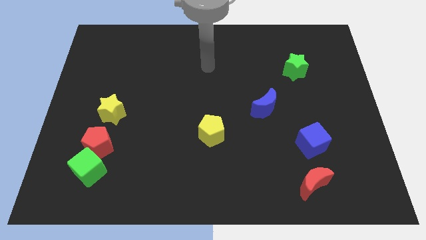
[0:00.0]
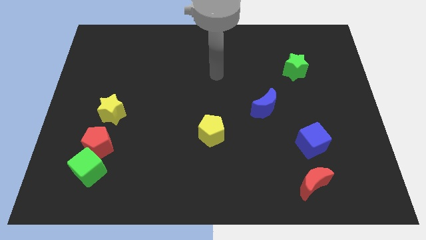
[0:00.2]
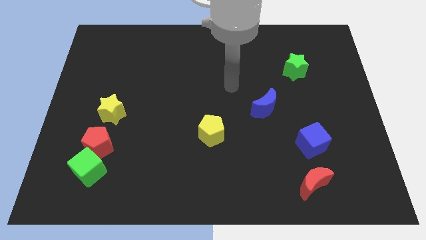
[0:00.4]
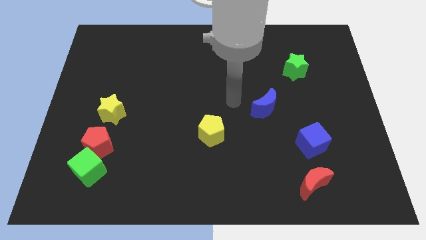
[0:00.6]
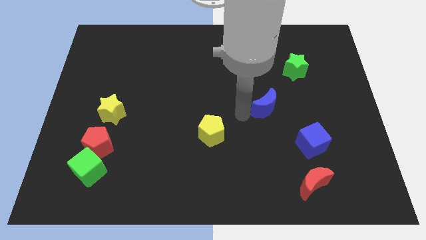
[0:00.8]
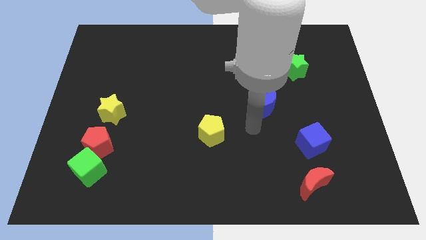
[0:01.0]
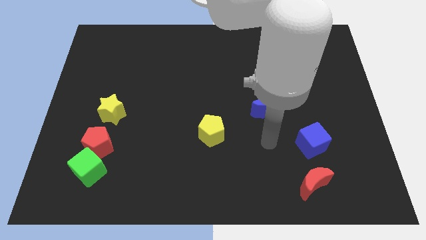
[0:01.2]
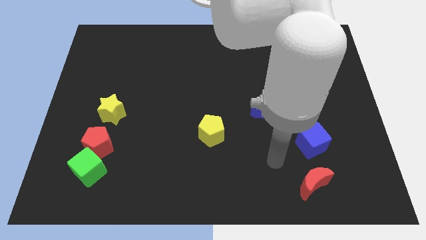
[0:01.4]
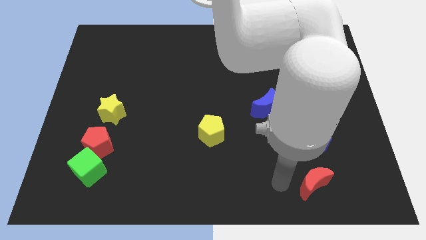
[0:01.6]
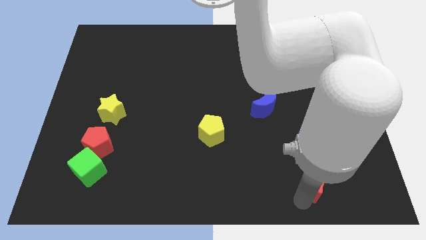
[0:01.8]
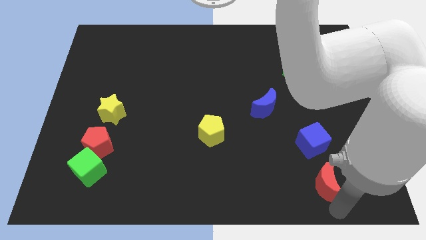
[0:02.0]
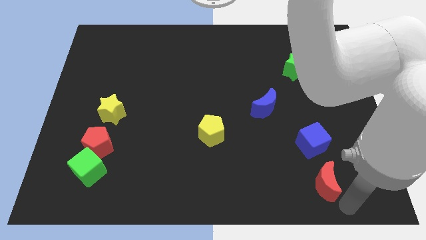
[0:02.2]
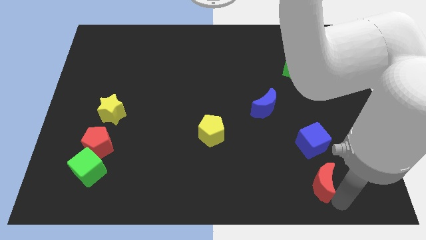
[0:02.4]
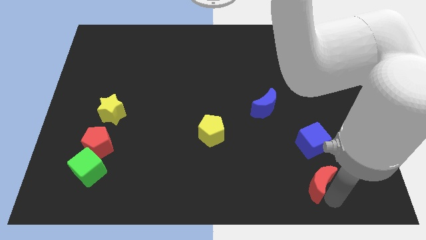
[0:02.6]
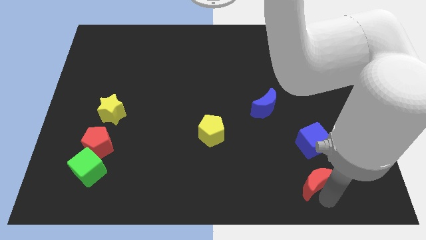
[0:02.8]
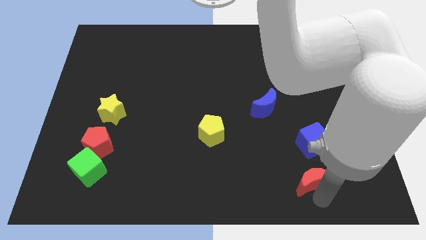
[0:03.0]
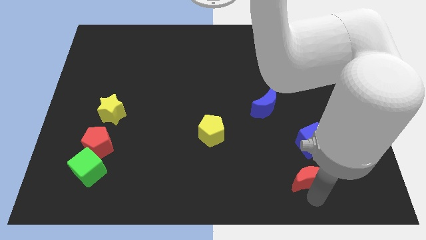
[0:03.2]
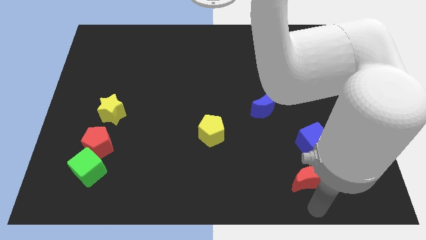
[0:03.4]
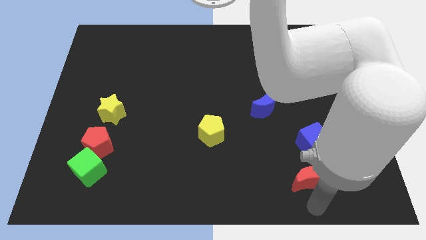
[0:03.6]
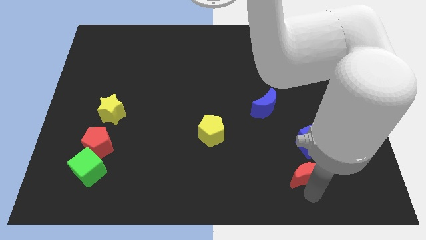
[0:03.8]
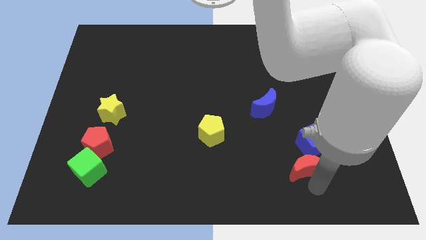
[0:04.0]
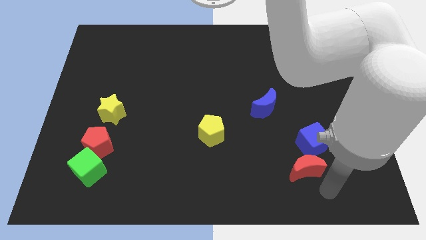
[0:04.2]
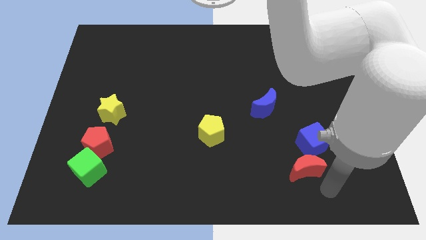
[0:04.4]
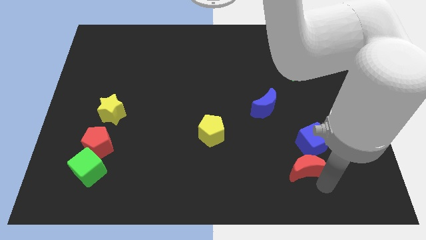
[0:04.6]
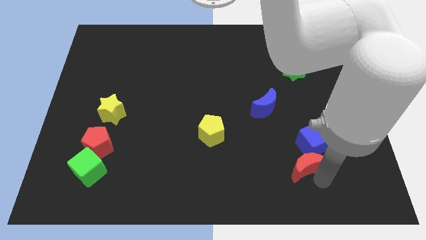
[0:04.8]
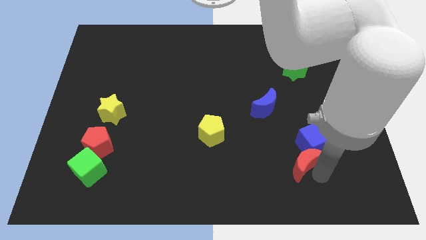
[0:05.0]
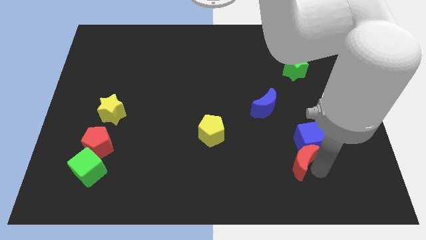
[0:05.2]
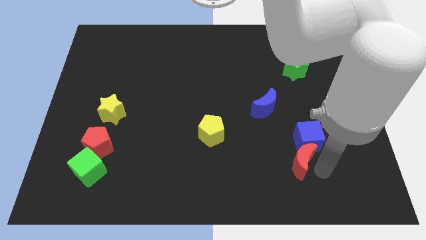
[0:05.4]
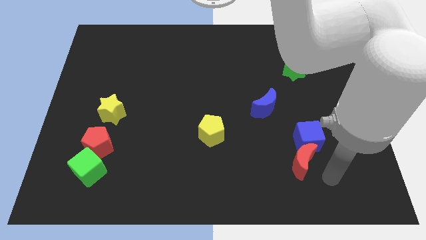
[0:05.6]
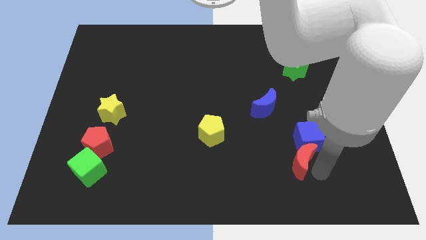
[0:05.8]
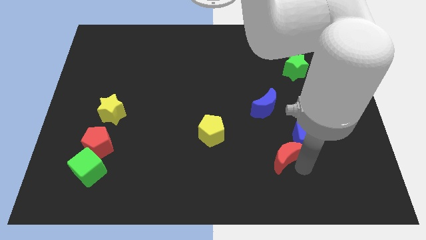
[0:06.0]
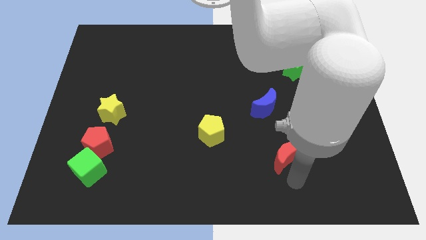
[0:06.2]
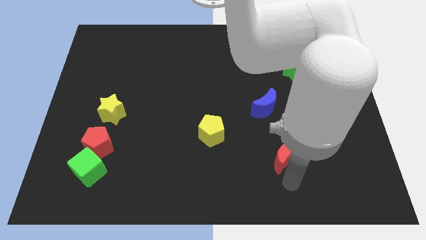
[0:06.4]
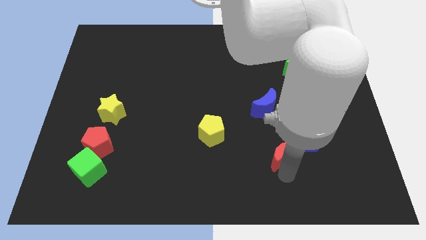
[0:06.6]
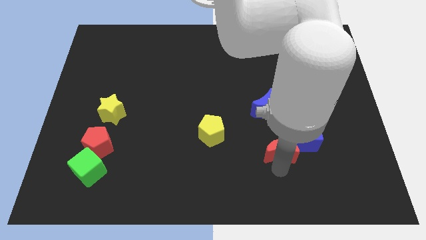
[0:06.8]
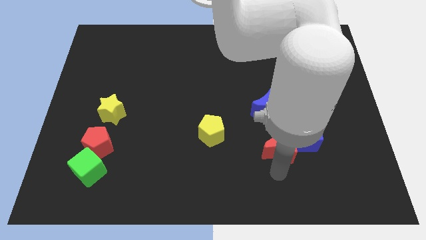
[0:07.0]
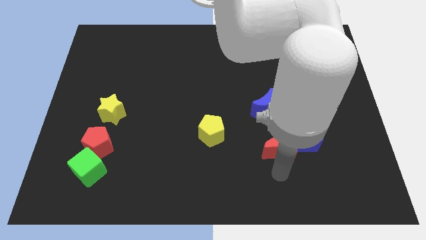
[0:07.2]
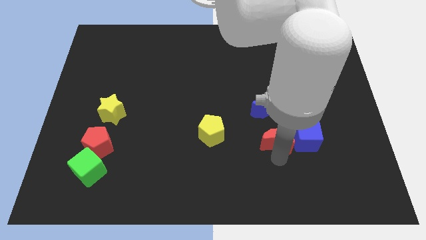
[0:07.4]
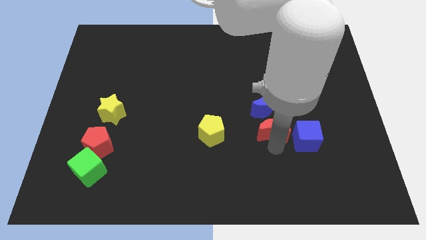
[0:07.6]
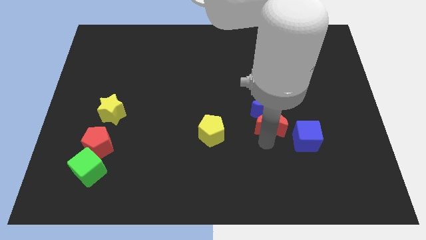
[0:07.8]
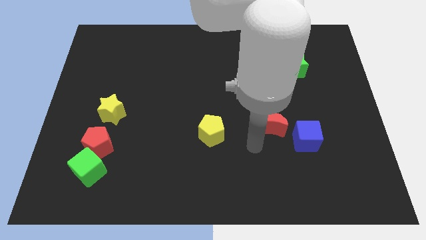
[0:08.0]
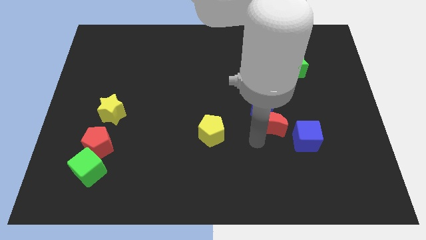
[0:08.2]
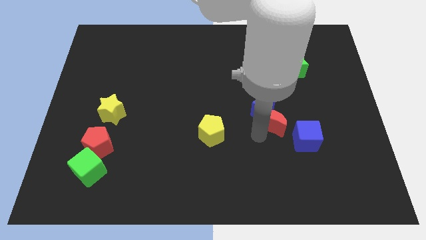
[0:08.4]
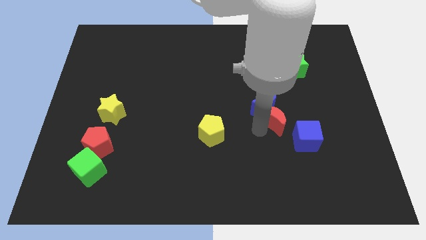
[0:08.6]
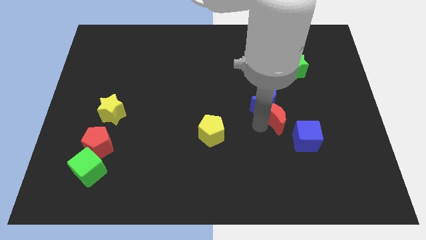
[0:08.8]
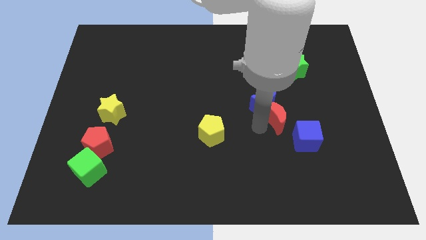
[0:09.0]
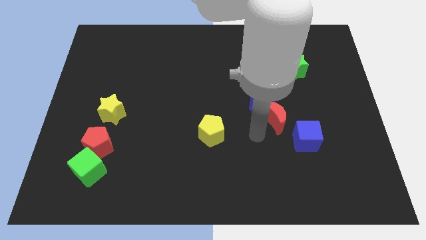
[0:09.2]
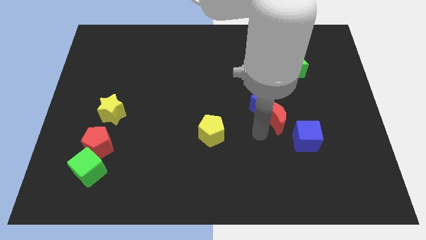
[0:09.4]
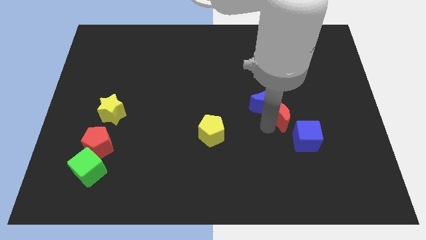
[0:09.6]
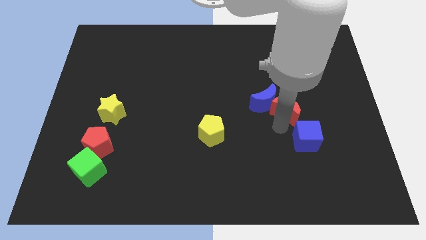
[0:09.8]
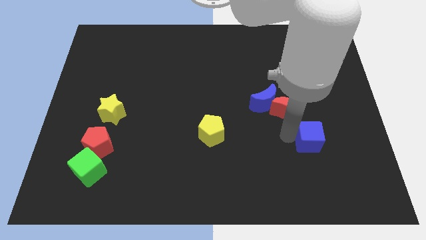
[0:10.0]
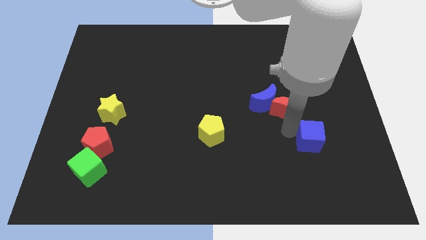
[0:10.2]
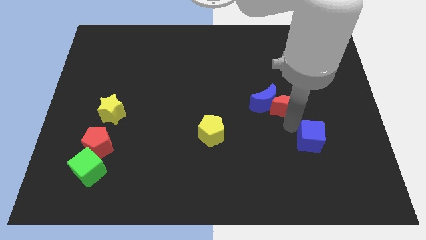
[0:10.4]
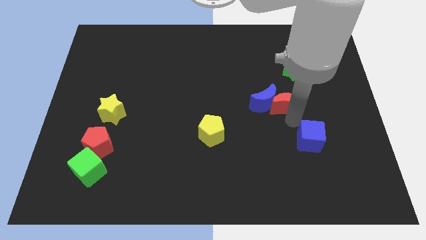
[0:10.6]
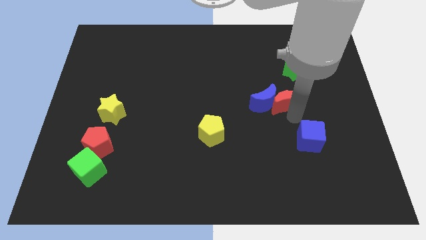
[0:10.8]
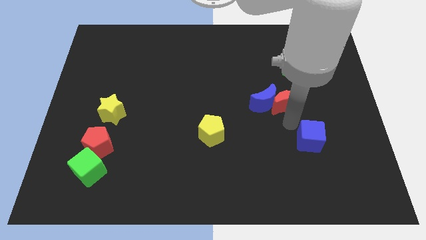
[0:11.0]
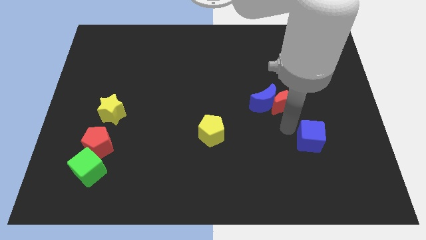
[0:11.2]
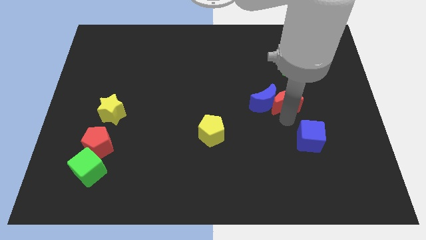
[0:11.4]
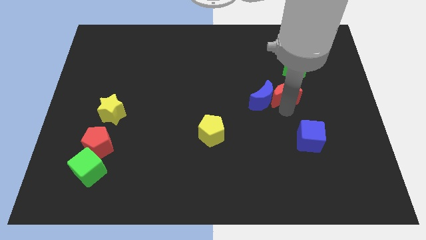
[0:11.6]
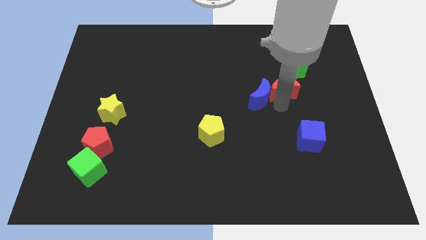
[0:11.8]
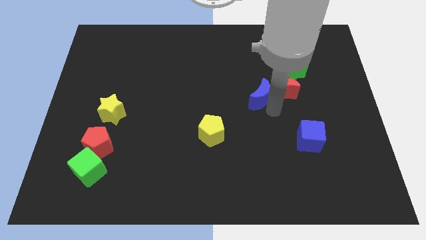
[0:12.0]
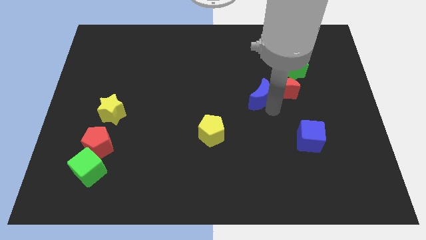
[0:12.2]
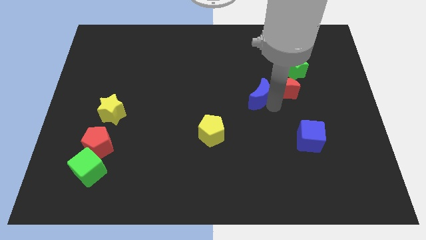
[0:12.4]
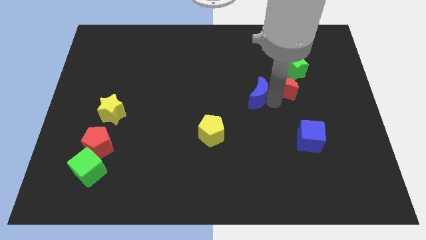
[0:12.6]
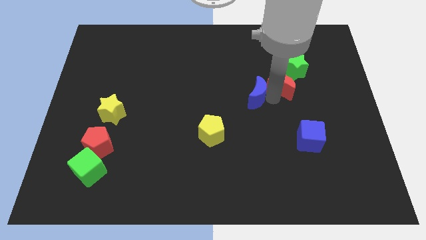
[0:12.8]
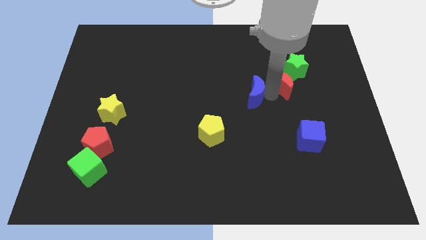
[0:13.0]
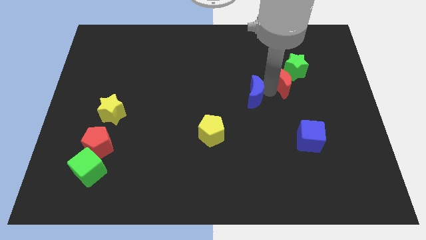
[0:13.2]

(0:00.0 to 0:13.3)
put the red moon towards the green star
